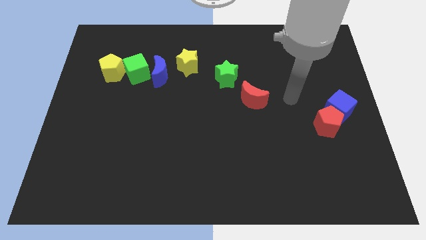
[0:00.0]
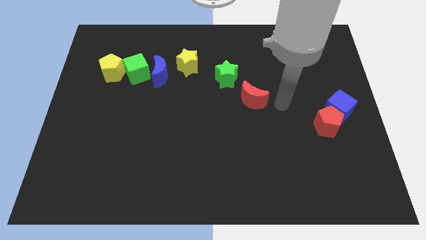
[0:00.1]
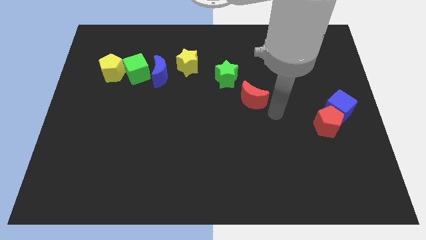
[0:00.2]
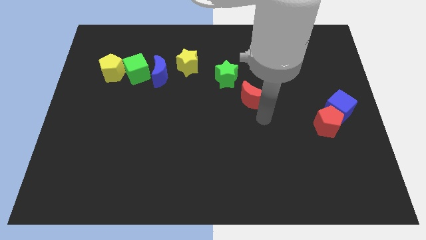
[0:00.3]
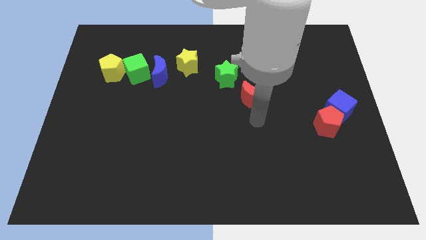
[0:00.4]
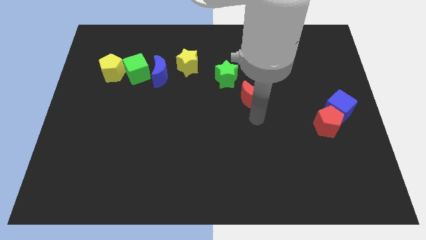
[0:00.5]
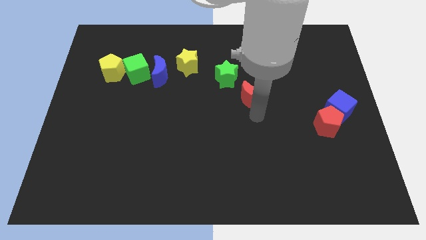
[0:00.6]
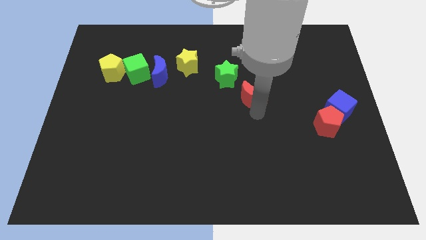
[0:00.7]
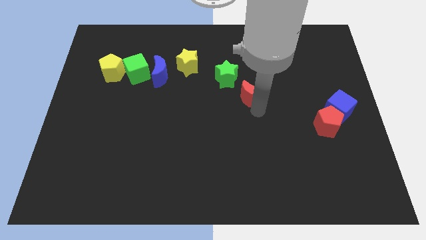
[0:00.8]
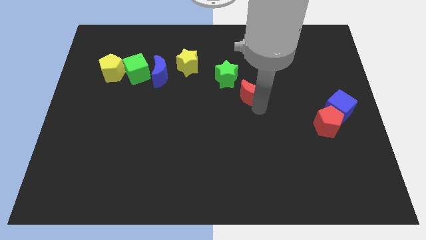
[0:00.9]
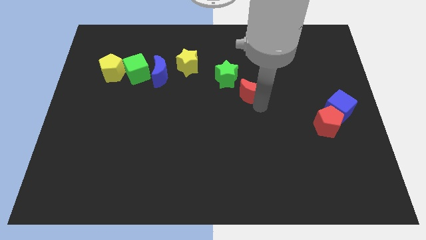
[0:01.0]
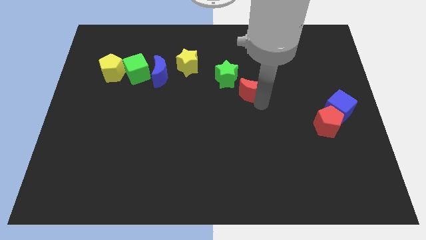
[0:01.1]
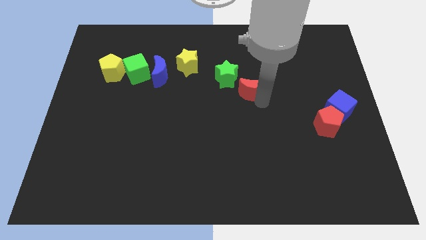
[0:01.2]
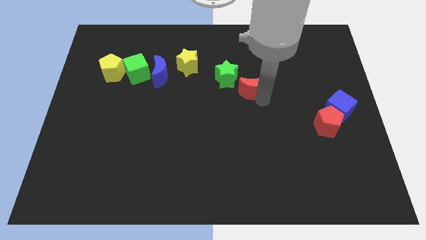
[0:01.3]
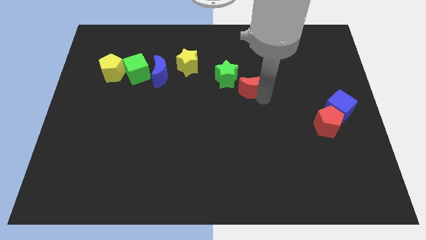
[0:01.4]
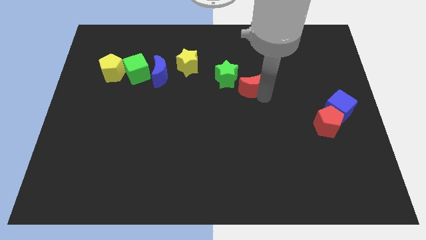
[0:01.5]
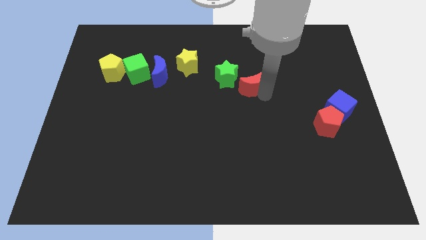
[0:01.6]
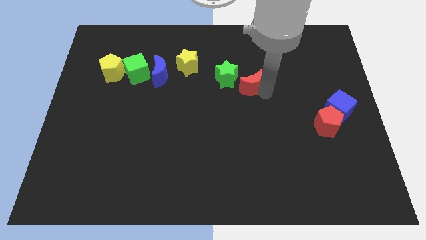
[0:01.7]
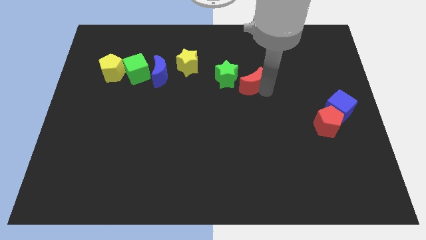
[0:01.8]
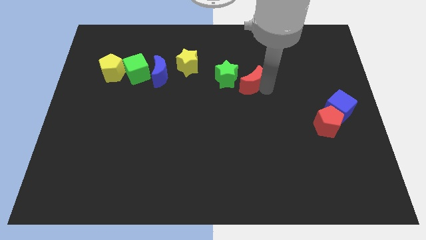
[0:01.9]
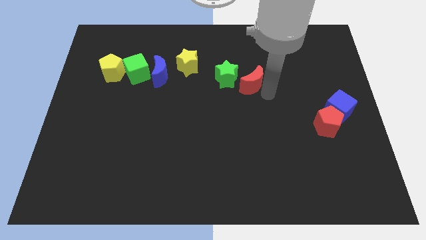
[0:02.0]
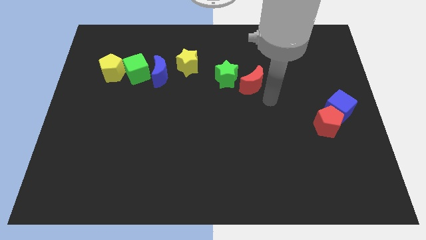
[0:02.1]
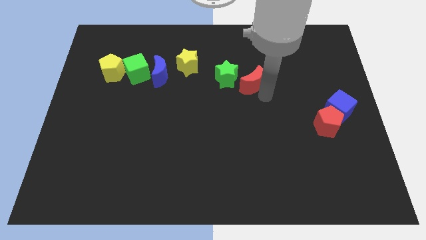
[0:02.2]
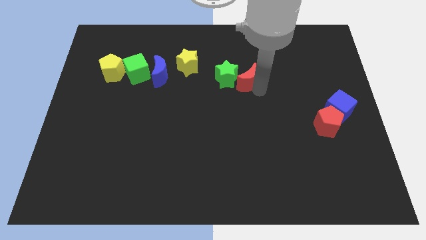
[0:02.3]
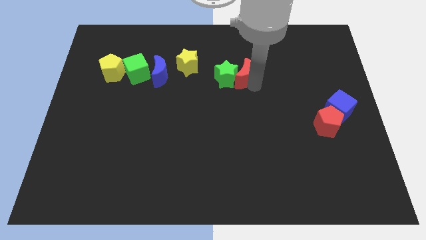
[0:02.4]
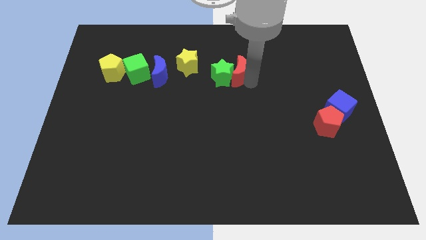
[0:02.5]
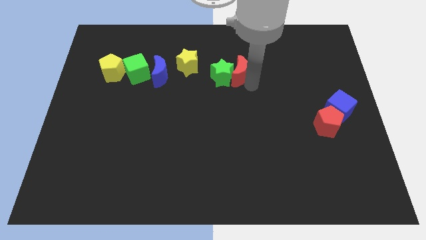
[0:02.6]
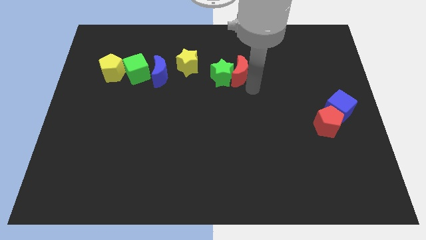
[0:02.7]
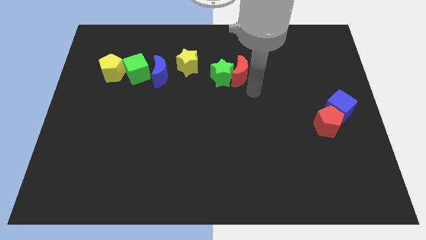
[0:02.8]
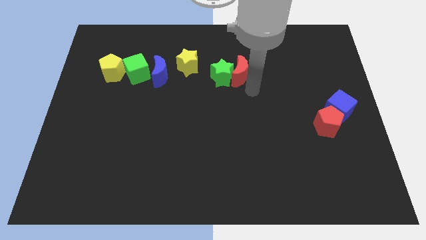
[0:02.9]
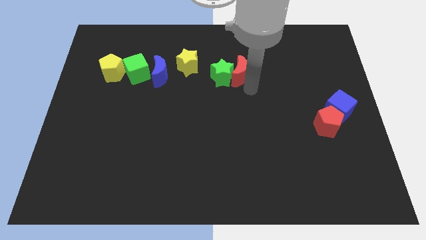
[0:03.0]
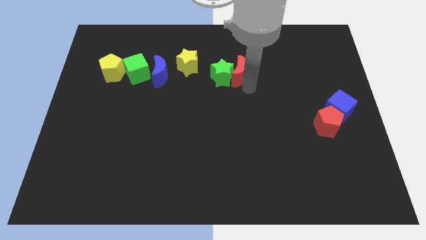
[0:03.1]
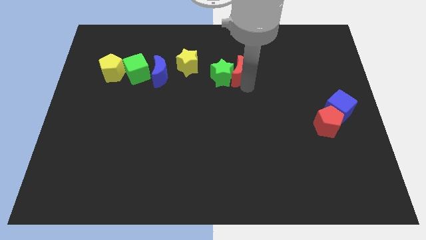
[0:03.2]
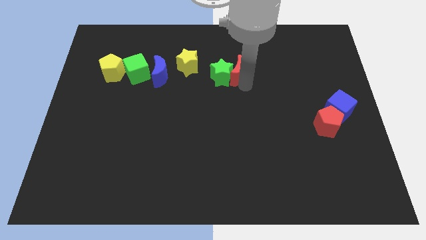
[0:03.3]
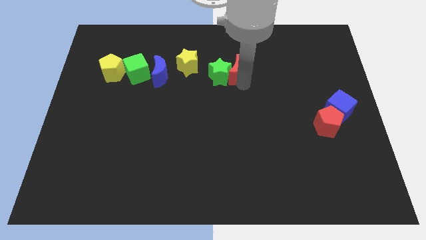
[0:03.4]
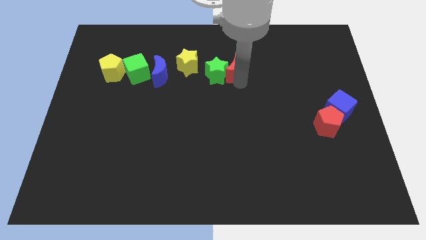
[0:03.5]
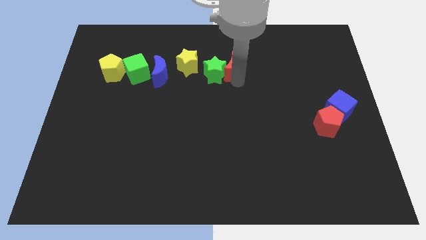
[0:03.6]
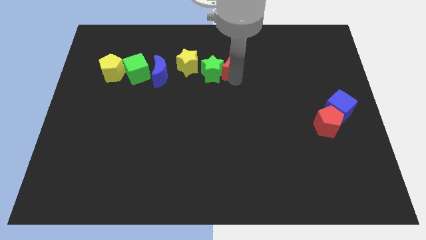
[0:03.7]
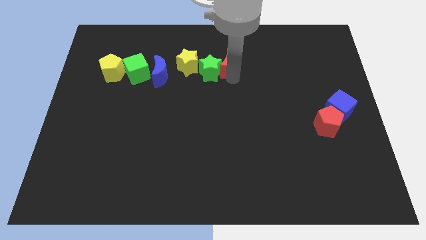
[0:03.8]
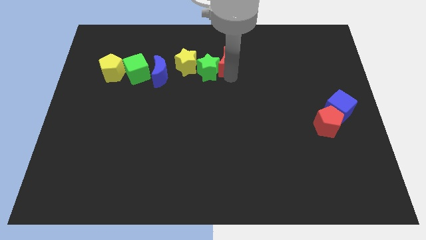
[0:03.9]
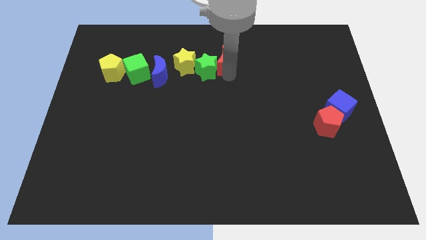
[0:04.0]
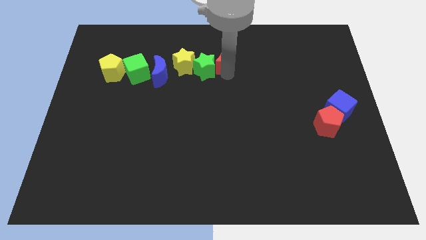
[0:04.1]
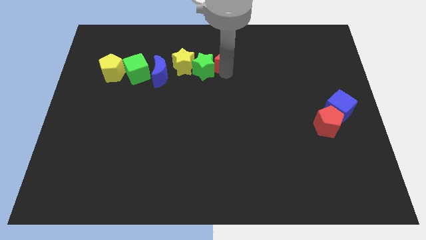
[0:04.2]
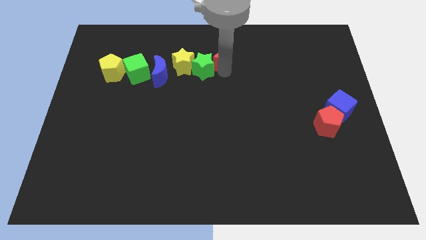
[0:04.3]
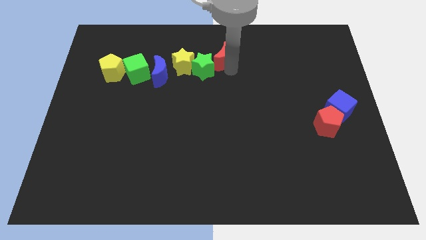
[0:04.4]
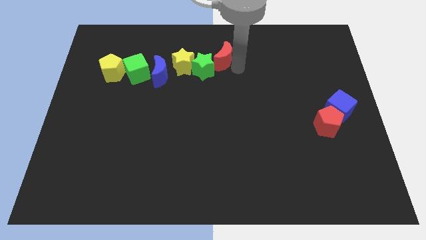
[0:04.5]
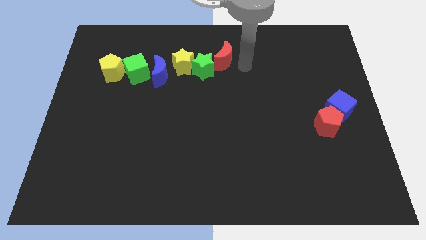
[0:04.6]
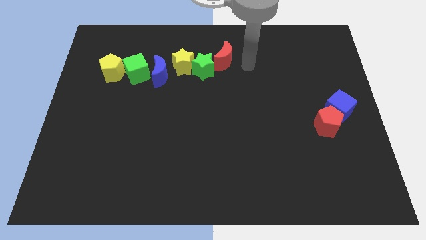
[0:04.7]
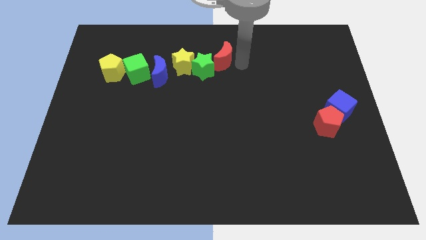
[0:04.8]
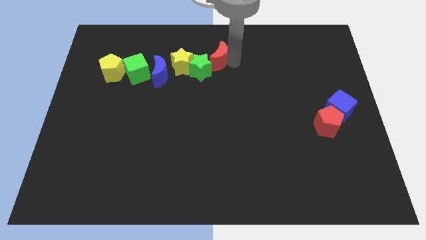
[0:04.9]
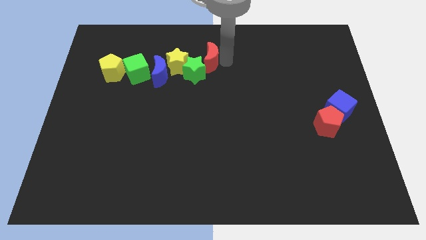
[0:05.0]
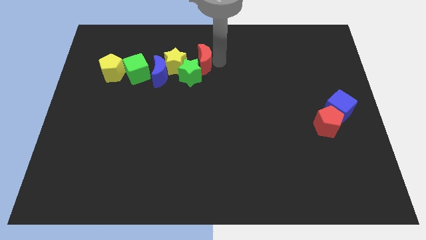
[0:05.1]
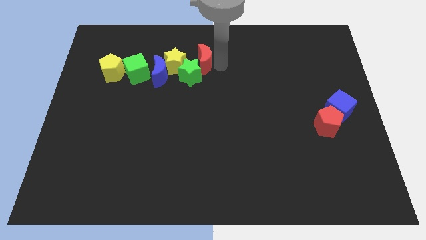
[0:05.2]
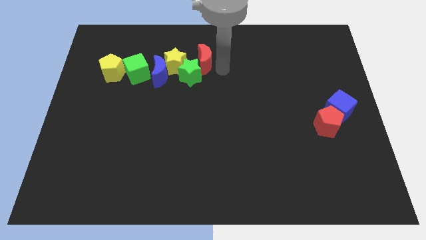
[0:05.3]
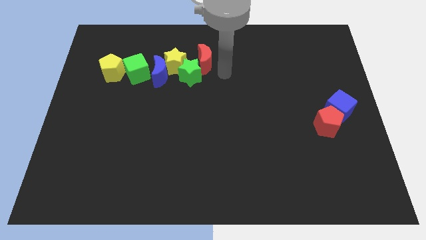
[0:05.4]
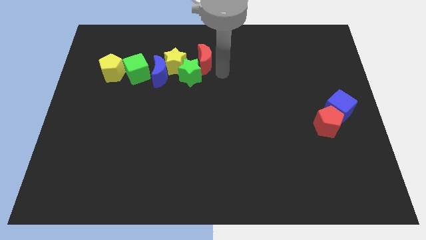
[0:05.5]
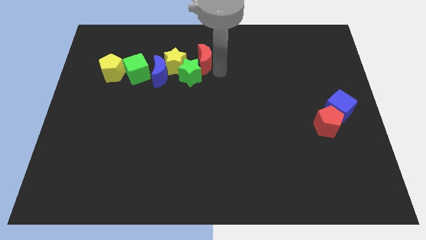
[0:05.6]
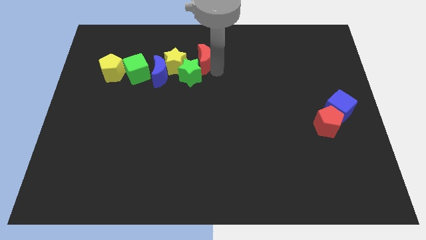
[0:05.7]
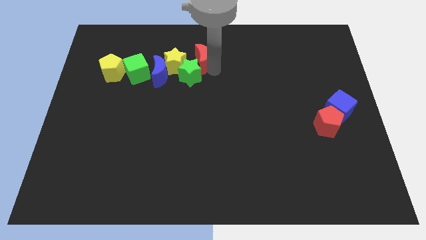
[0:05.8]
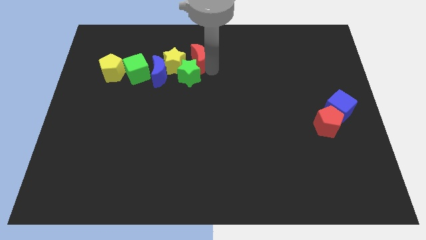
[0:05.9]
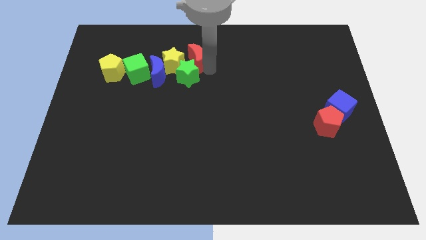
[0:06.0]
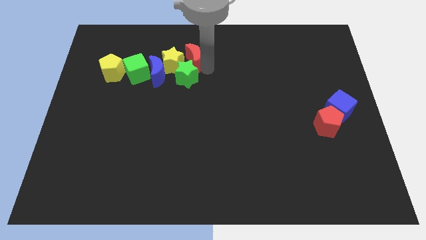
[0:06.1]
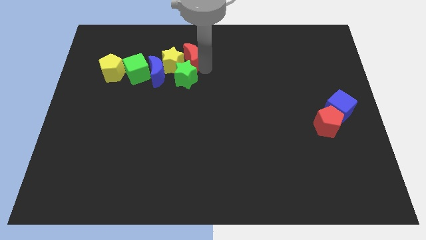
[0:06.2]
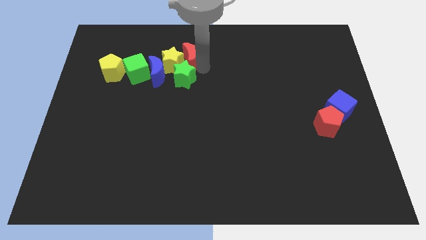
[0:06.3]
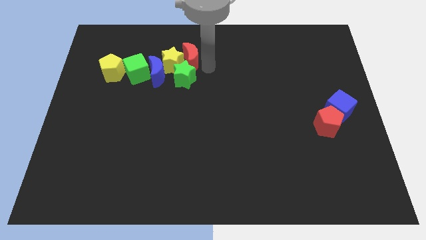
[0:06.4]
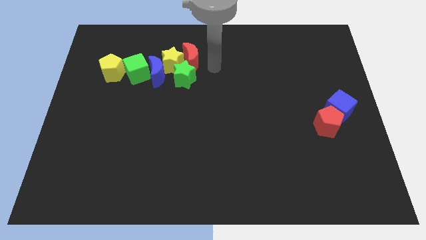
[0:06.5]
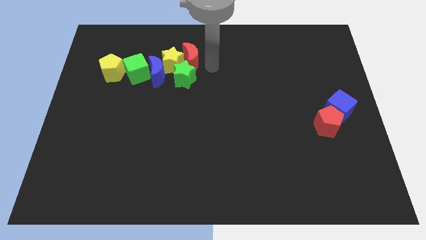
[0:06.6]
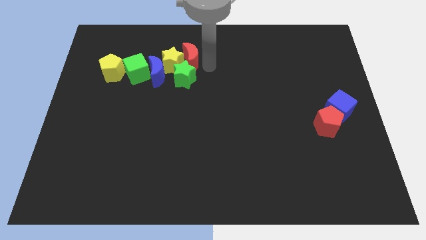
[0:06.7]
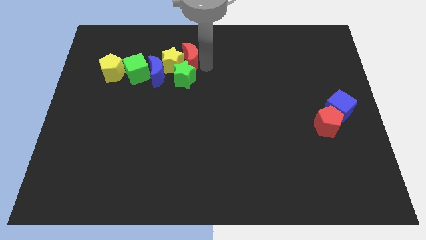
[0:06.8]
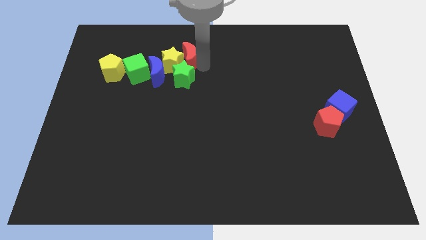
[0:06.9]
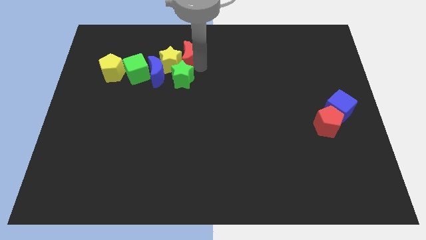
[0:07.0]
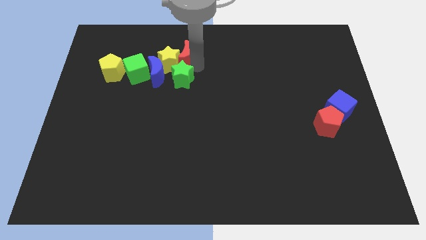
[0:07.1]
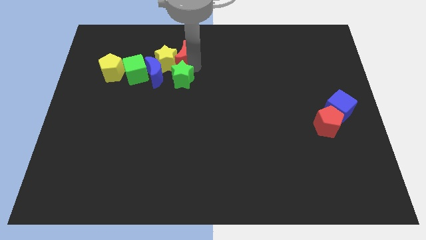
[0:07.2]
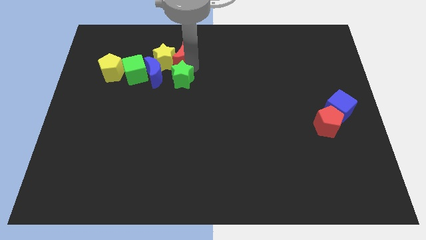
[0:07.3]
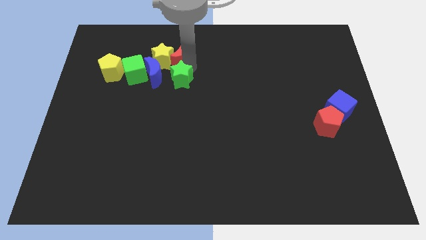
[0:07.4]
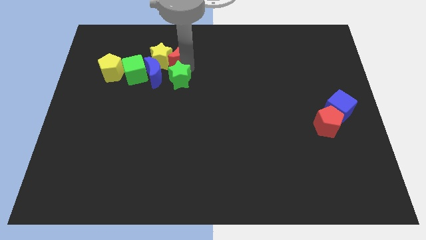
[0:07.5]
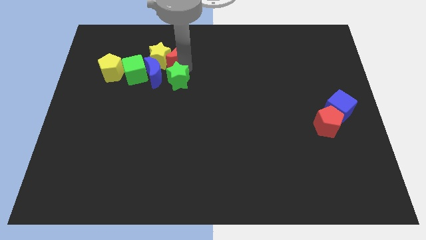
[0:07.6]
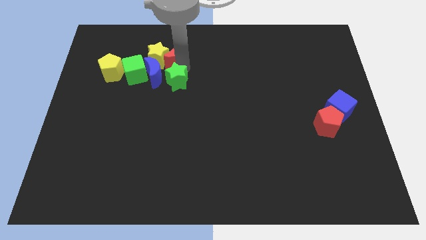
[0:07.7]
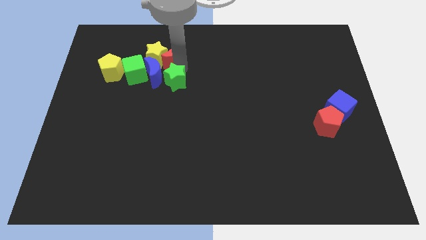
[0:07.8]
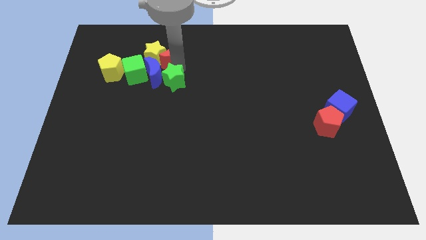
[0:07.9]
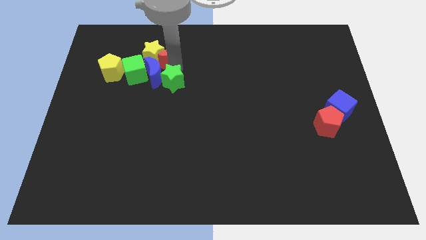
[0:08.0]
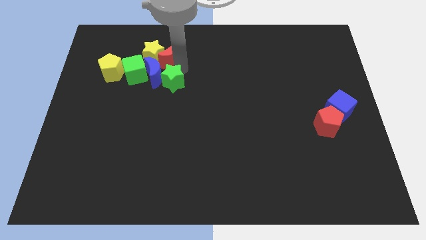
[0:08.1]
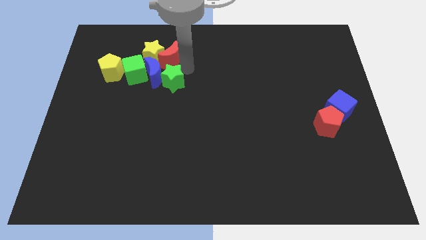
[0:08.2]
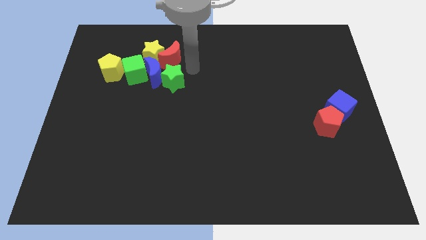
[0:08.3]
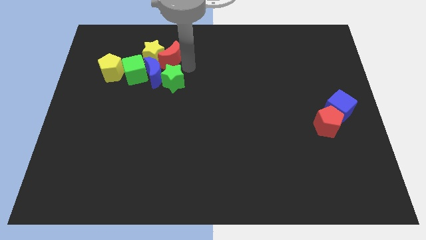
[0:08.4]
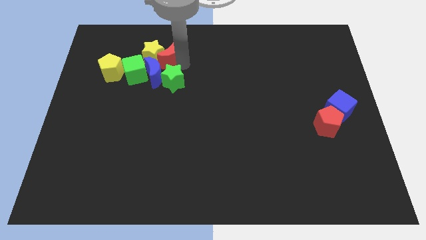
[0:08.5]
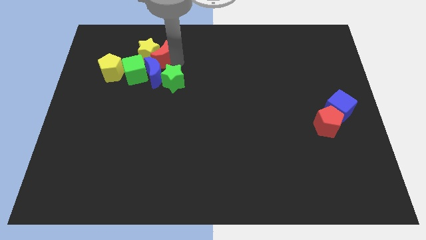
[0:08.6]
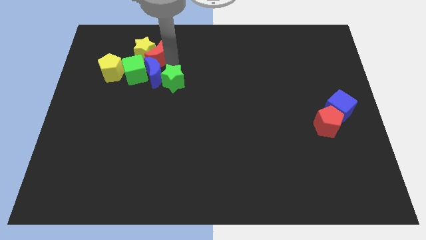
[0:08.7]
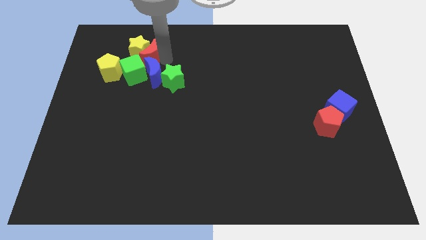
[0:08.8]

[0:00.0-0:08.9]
slide the red moon to the top right side of the yellow pentagon
